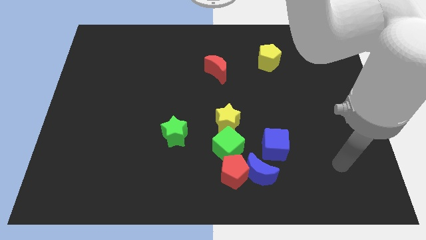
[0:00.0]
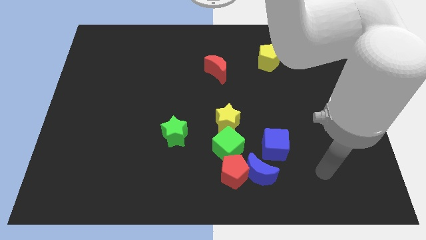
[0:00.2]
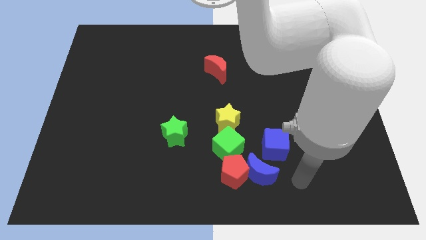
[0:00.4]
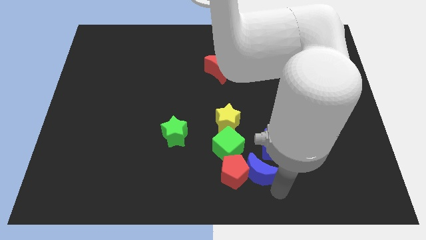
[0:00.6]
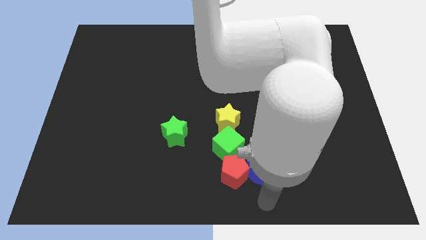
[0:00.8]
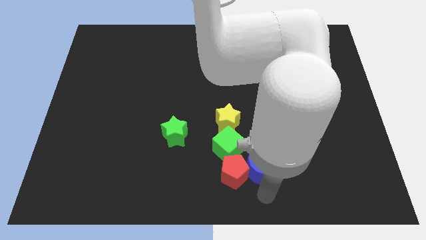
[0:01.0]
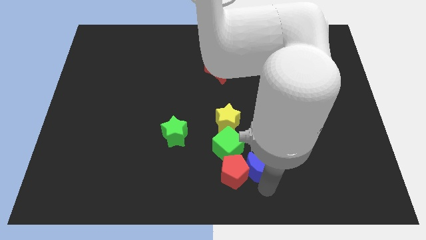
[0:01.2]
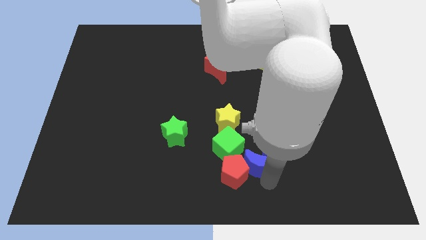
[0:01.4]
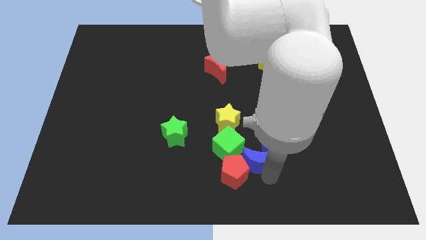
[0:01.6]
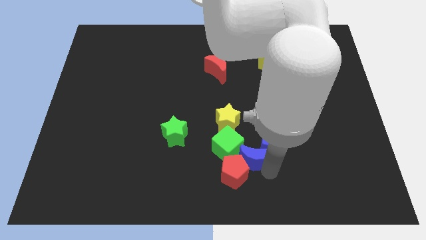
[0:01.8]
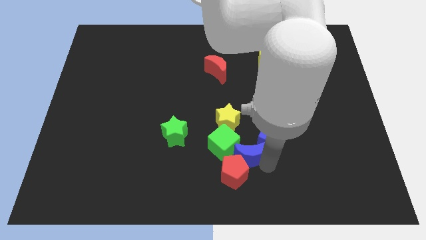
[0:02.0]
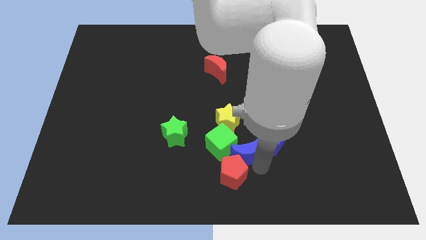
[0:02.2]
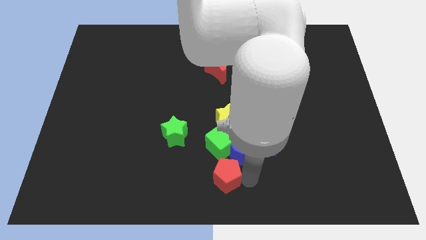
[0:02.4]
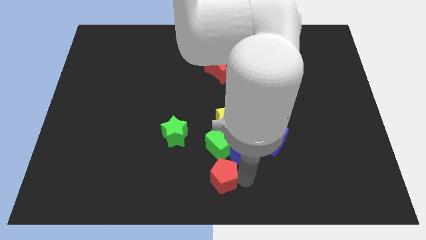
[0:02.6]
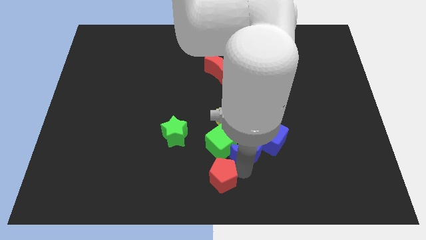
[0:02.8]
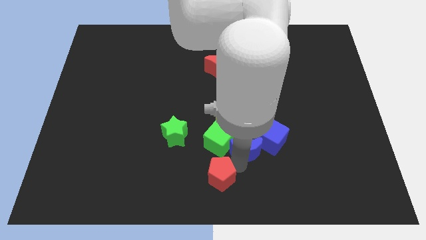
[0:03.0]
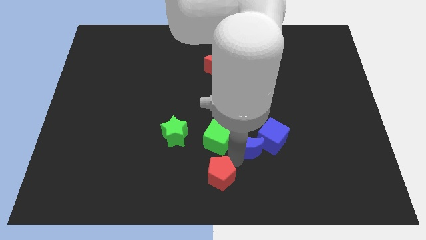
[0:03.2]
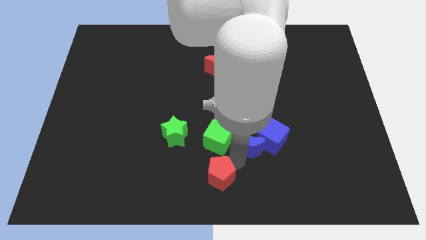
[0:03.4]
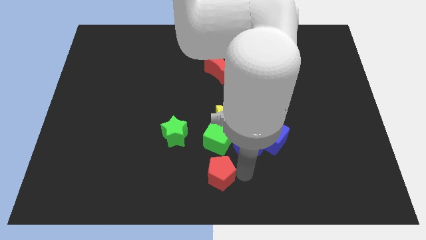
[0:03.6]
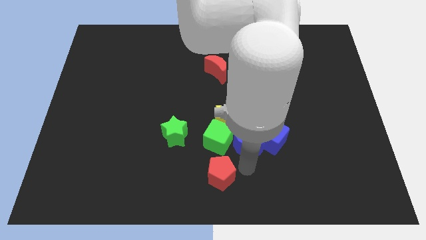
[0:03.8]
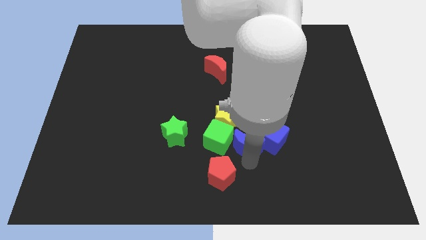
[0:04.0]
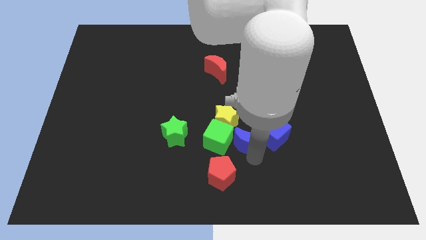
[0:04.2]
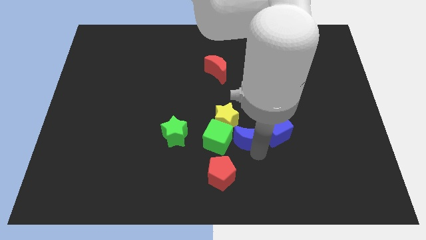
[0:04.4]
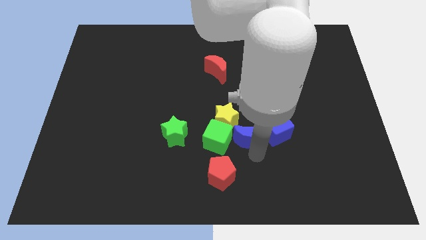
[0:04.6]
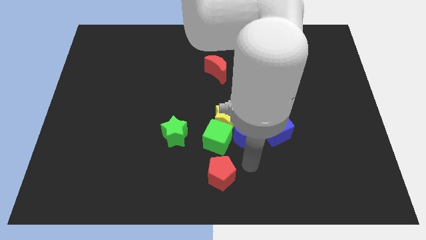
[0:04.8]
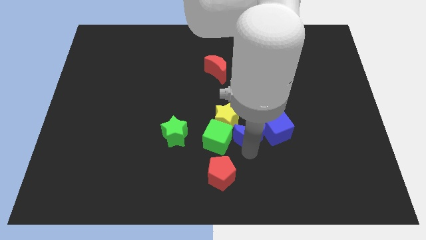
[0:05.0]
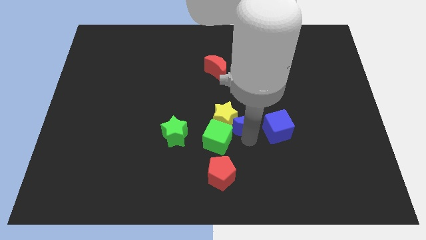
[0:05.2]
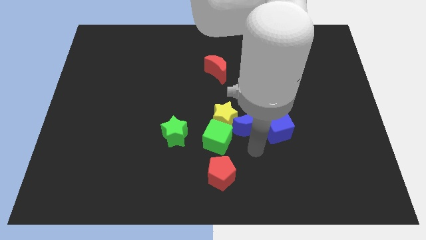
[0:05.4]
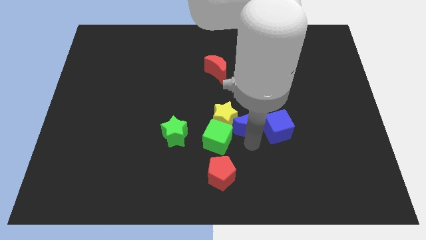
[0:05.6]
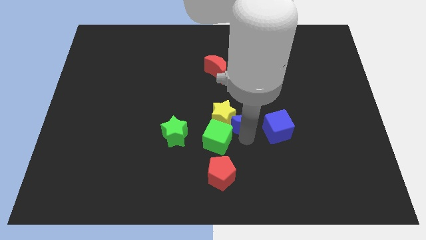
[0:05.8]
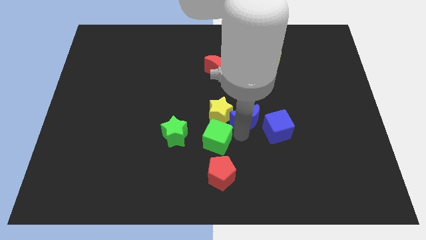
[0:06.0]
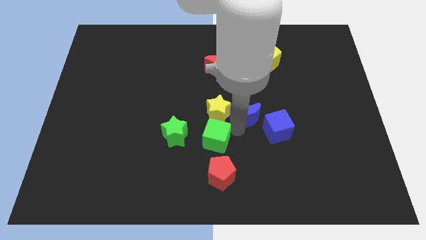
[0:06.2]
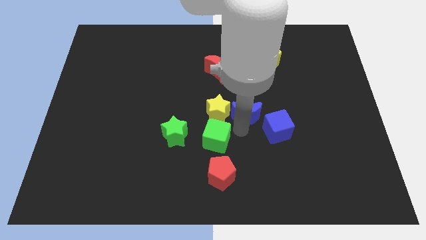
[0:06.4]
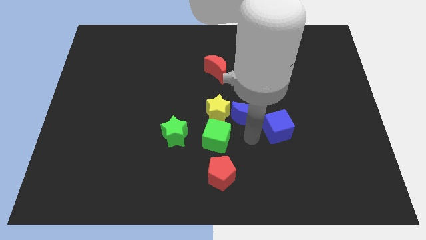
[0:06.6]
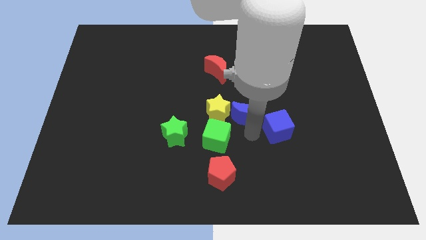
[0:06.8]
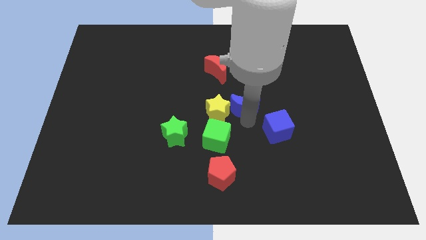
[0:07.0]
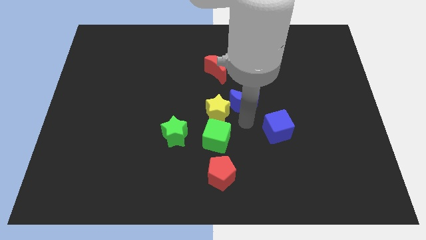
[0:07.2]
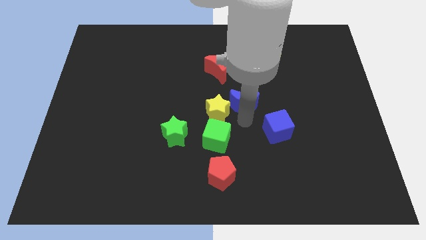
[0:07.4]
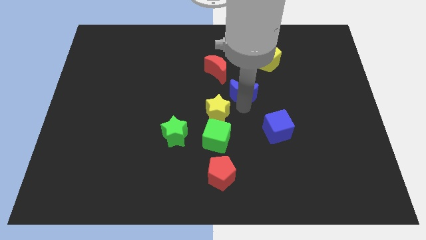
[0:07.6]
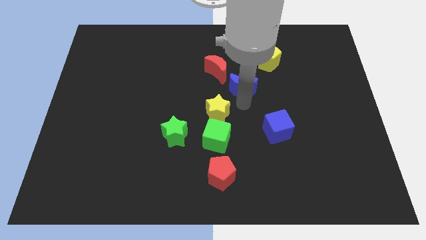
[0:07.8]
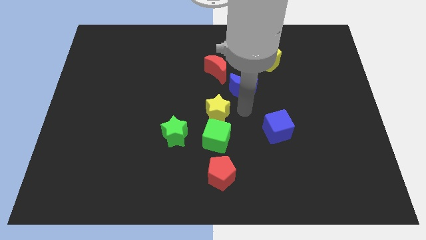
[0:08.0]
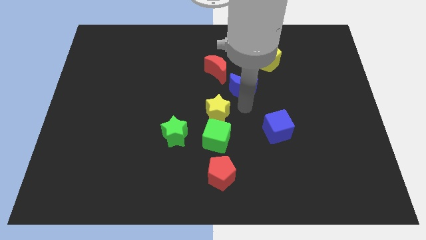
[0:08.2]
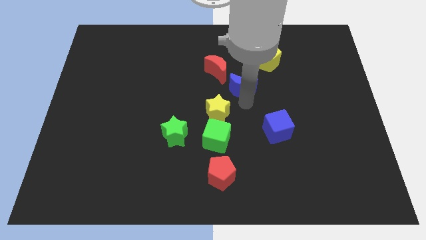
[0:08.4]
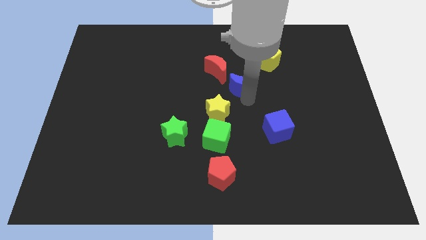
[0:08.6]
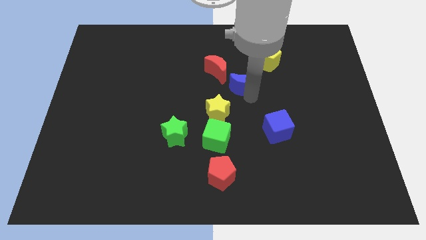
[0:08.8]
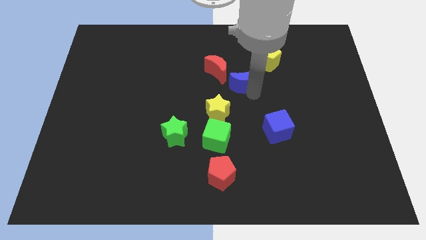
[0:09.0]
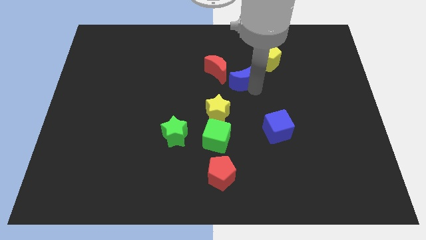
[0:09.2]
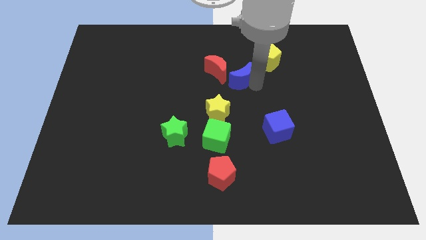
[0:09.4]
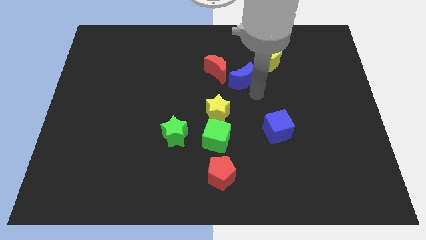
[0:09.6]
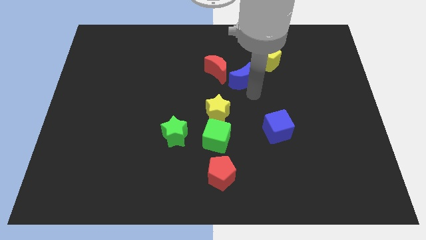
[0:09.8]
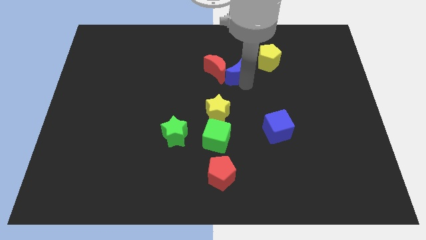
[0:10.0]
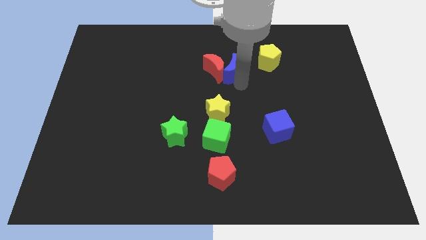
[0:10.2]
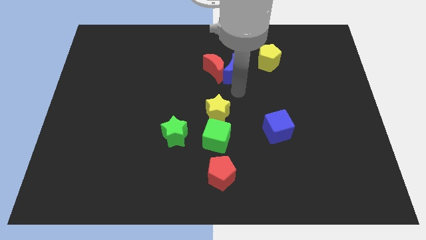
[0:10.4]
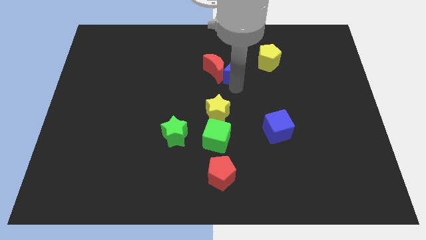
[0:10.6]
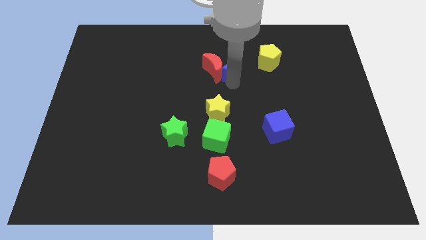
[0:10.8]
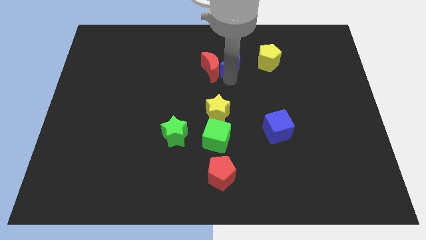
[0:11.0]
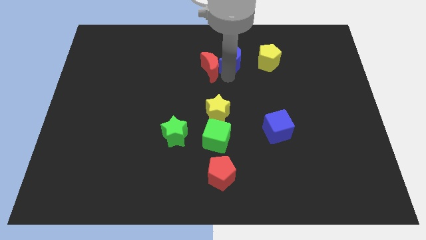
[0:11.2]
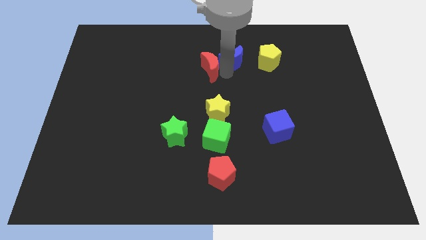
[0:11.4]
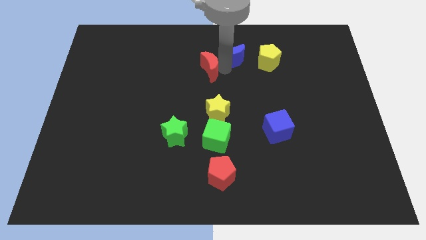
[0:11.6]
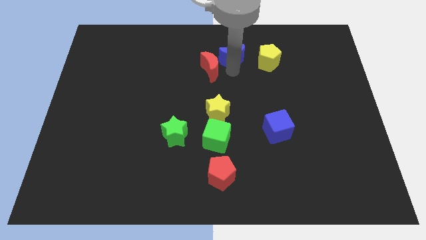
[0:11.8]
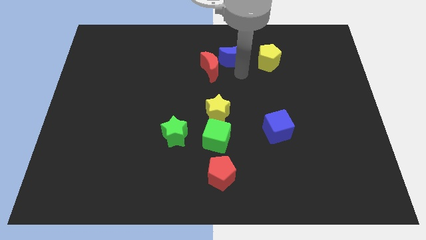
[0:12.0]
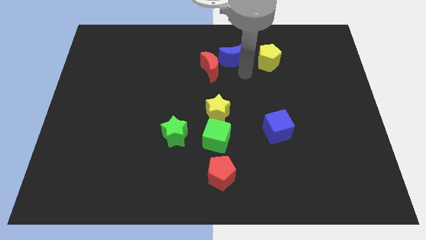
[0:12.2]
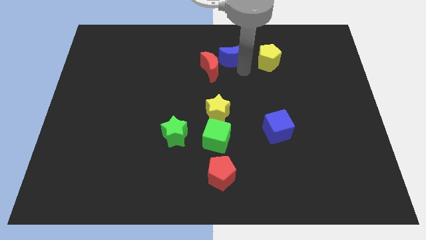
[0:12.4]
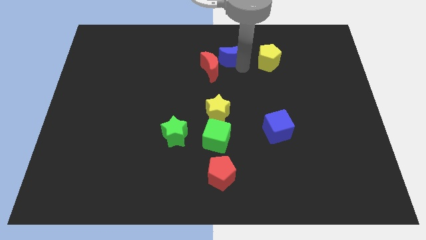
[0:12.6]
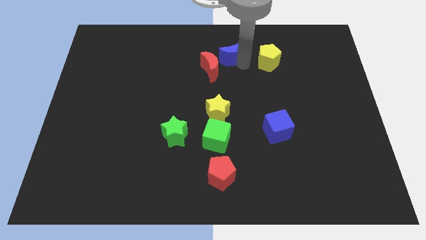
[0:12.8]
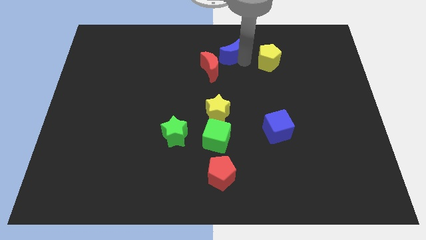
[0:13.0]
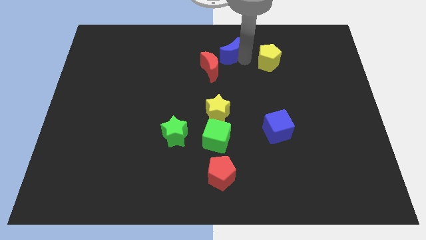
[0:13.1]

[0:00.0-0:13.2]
slide the blue moon to the top side
